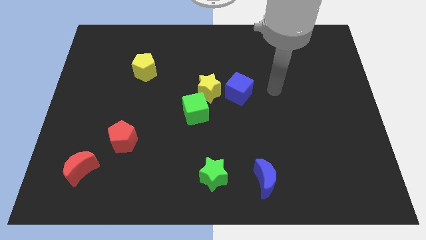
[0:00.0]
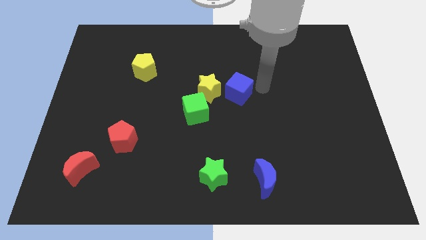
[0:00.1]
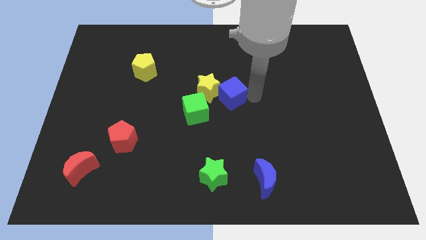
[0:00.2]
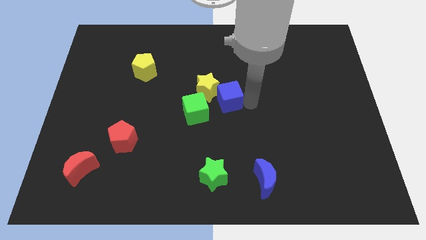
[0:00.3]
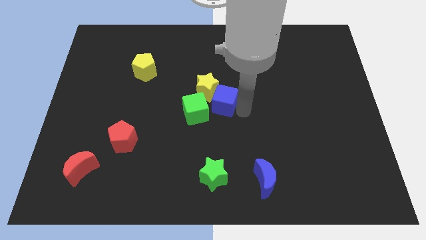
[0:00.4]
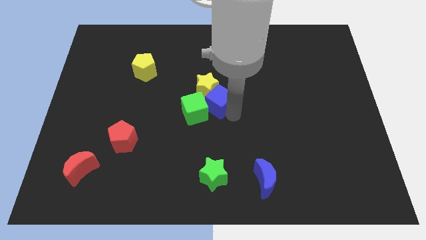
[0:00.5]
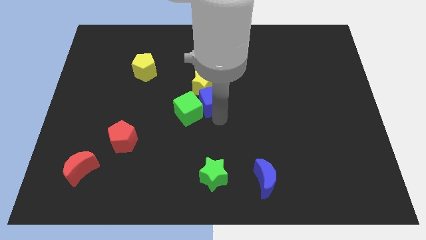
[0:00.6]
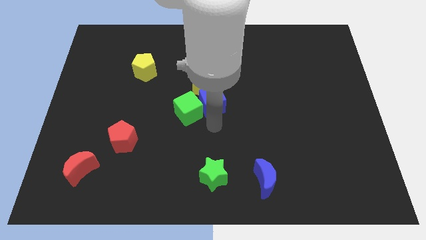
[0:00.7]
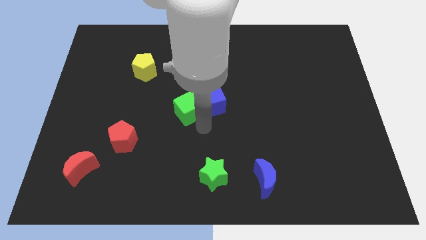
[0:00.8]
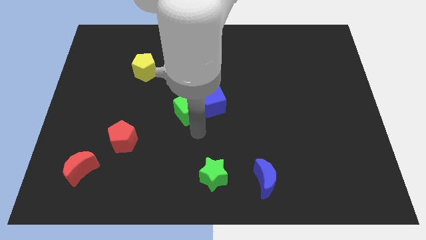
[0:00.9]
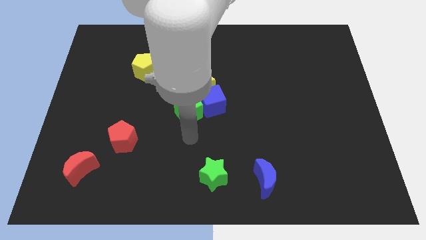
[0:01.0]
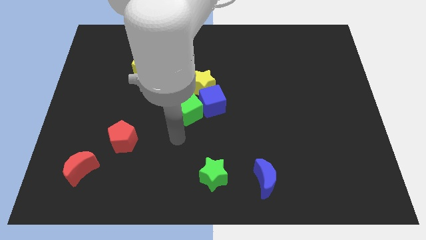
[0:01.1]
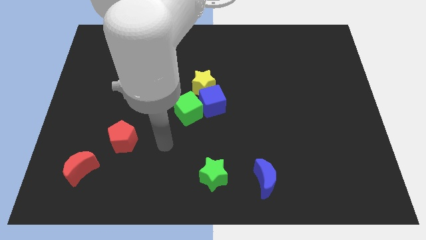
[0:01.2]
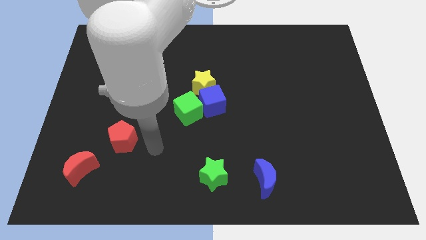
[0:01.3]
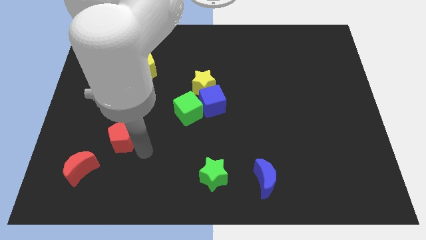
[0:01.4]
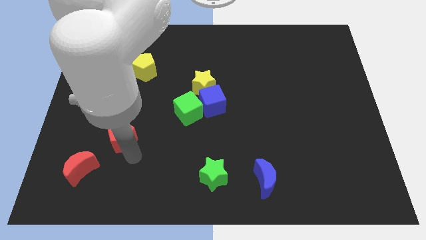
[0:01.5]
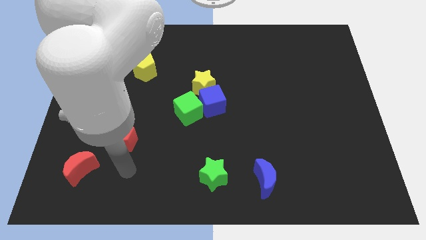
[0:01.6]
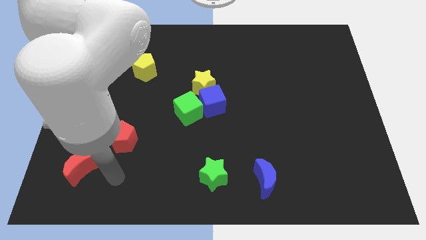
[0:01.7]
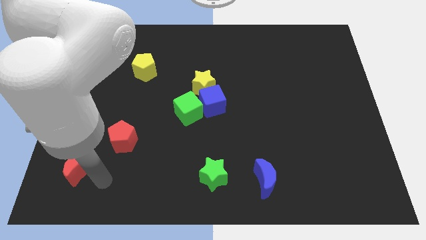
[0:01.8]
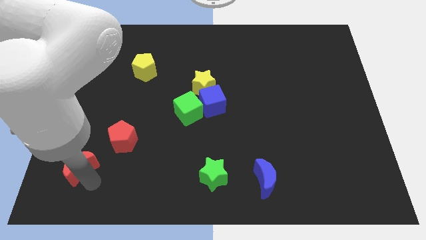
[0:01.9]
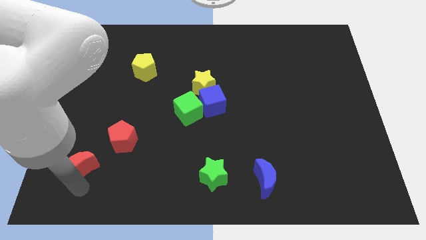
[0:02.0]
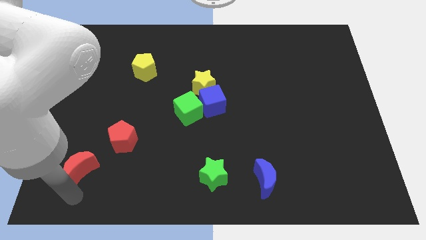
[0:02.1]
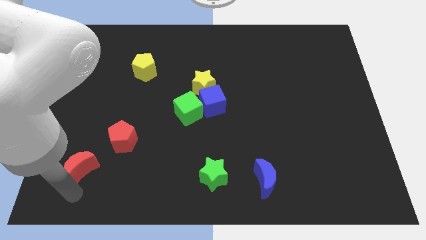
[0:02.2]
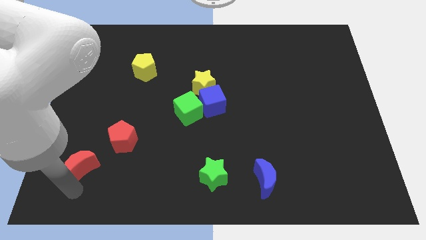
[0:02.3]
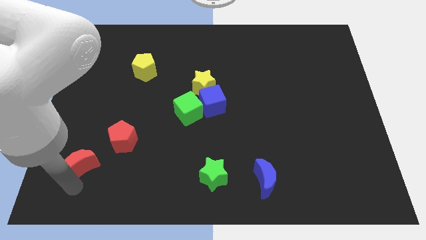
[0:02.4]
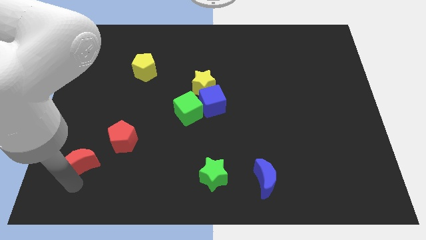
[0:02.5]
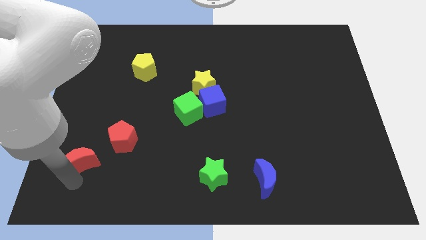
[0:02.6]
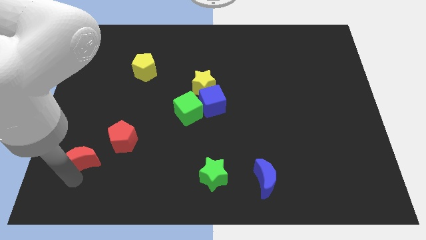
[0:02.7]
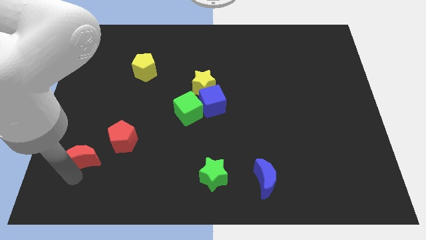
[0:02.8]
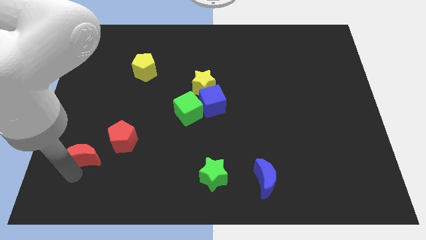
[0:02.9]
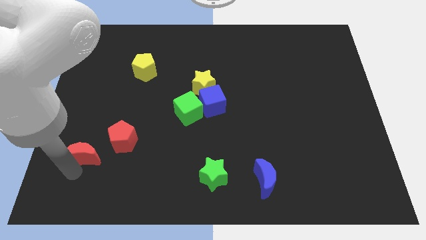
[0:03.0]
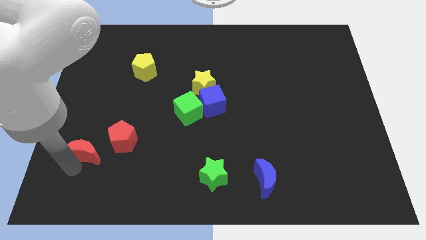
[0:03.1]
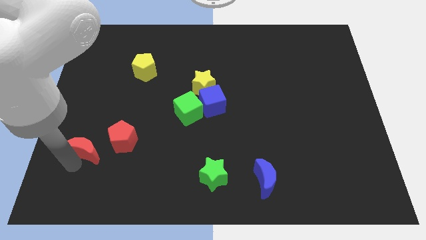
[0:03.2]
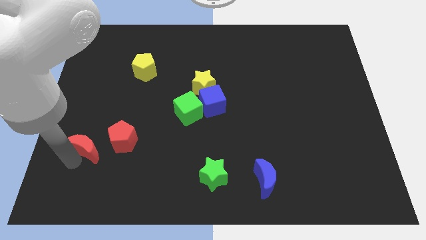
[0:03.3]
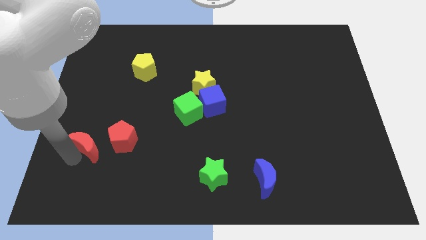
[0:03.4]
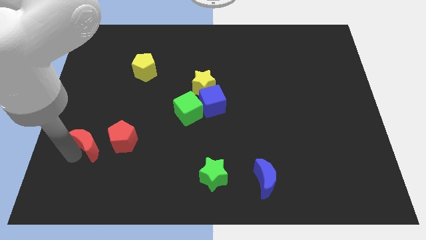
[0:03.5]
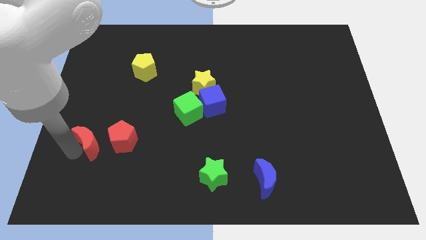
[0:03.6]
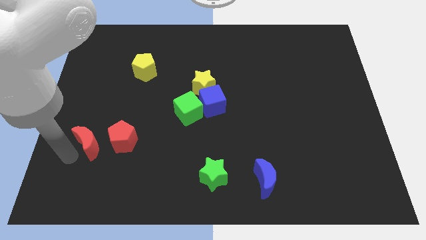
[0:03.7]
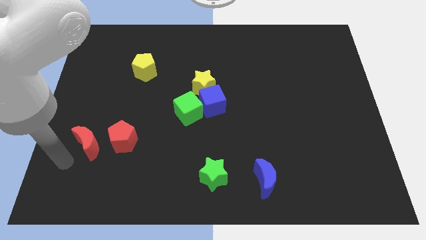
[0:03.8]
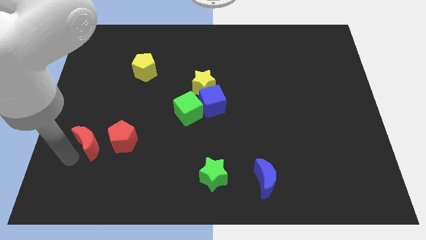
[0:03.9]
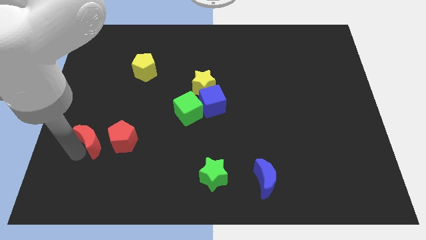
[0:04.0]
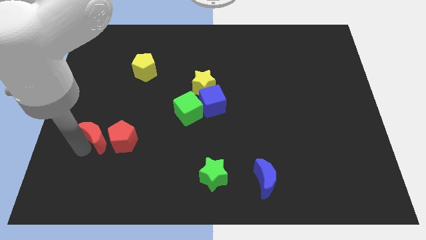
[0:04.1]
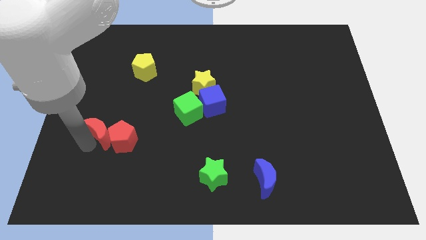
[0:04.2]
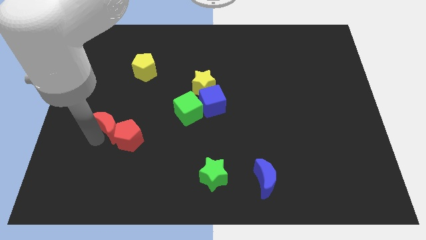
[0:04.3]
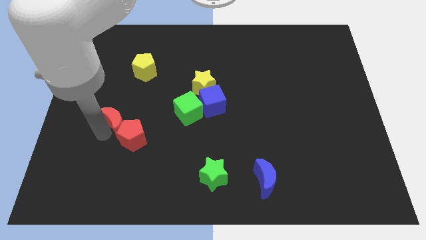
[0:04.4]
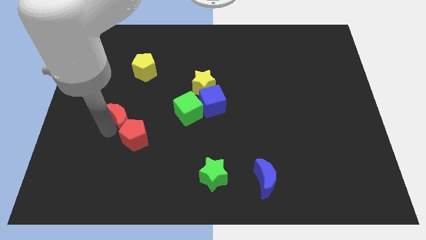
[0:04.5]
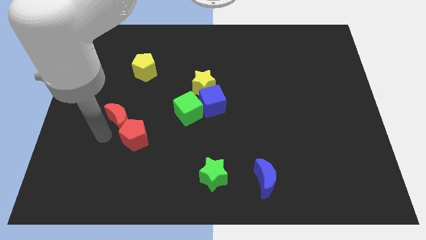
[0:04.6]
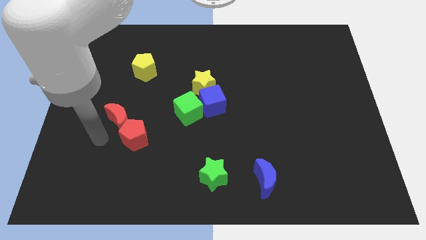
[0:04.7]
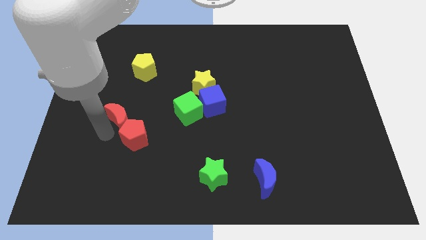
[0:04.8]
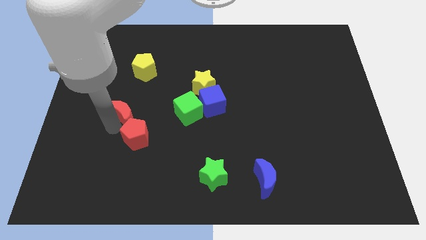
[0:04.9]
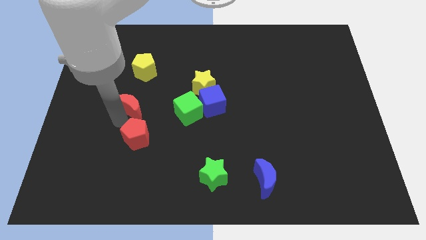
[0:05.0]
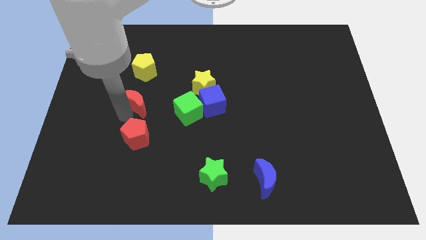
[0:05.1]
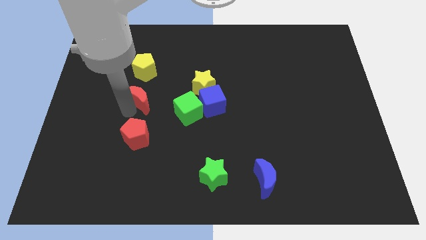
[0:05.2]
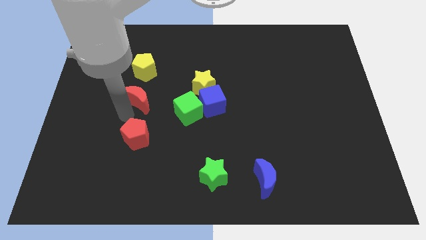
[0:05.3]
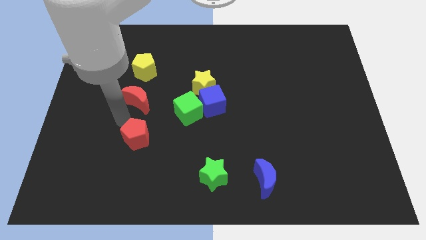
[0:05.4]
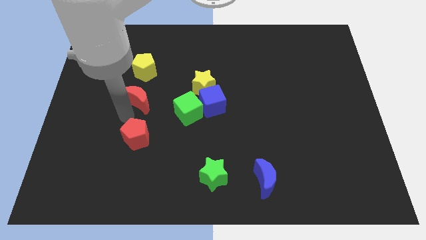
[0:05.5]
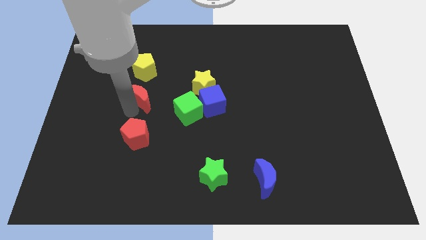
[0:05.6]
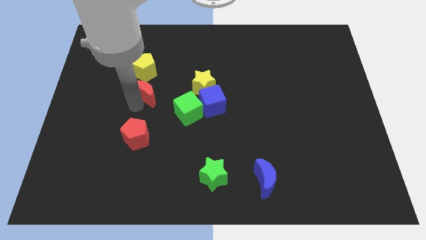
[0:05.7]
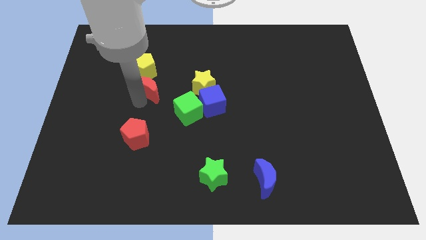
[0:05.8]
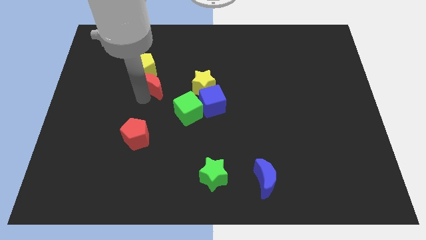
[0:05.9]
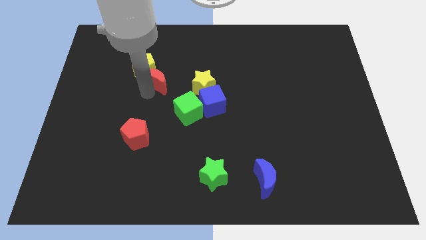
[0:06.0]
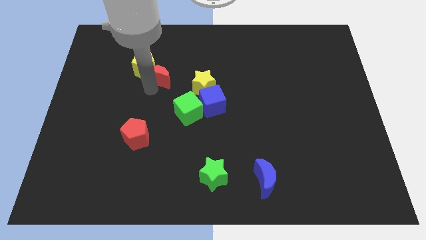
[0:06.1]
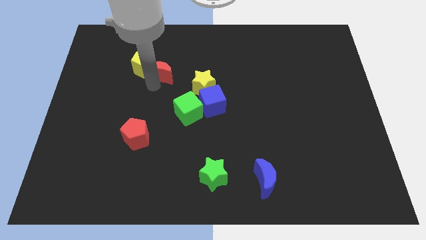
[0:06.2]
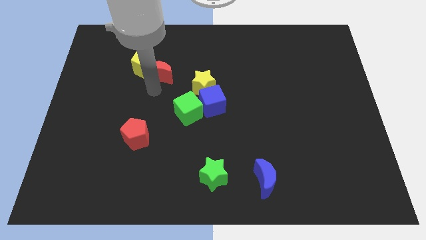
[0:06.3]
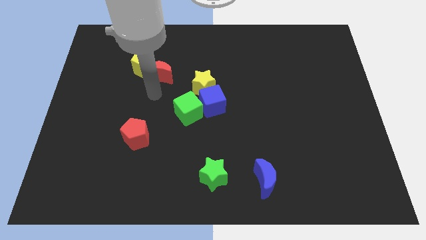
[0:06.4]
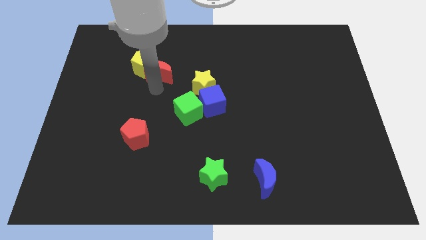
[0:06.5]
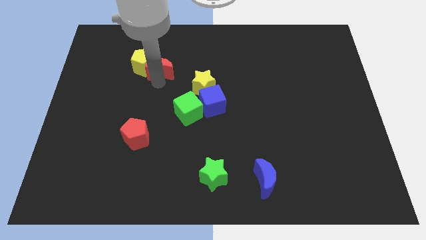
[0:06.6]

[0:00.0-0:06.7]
slide the red moon diagonally up and to the right of the yellow pentagon
